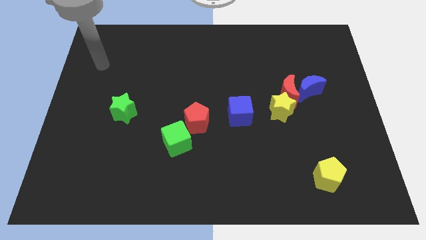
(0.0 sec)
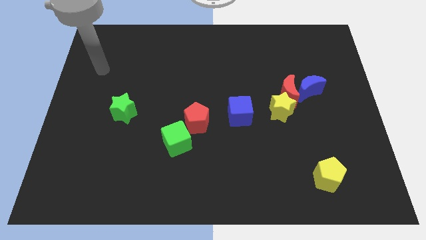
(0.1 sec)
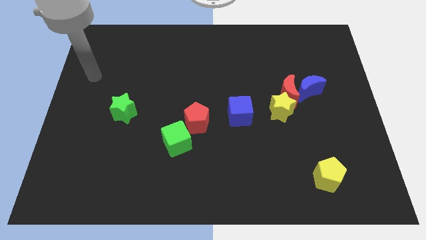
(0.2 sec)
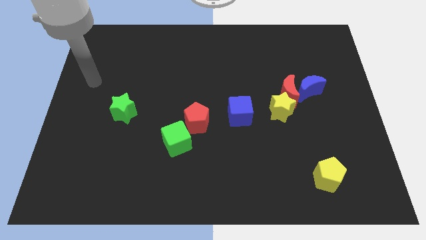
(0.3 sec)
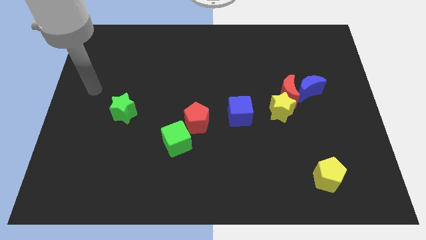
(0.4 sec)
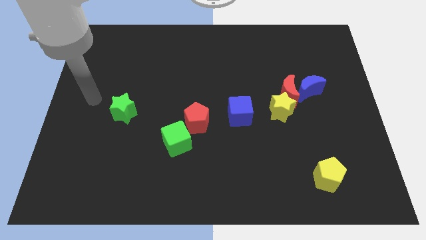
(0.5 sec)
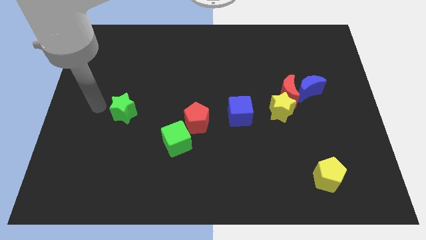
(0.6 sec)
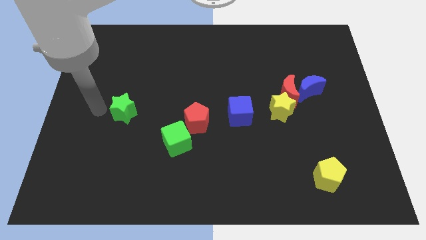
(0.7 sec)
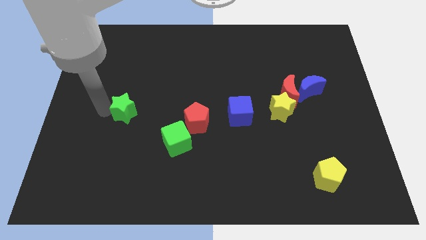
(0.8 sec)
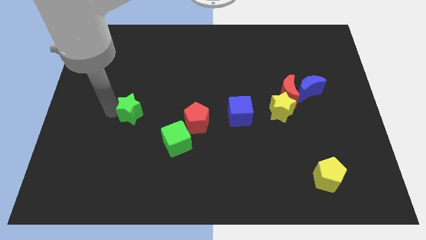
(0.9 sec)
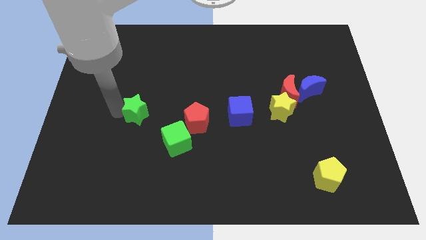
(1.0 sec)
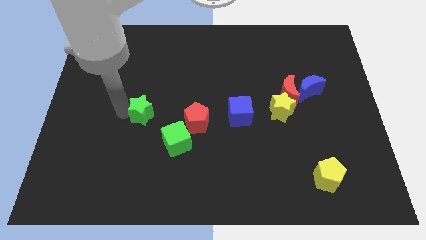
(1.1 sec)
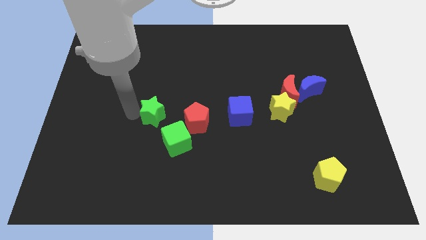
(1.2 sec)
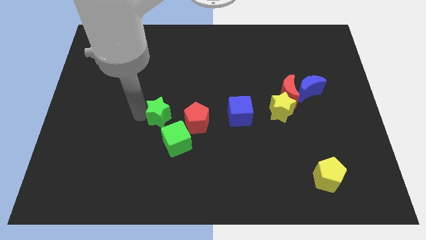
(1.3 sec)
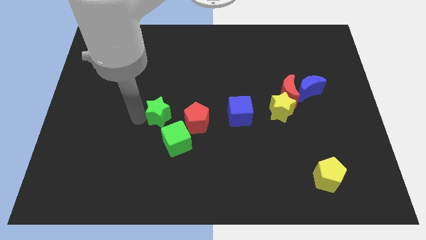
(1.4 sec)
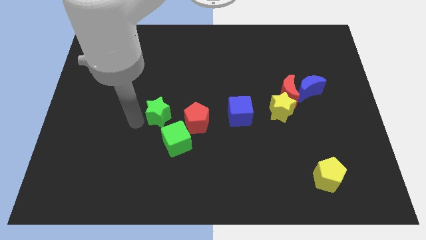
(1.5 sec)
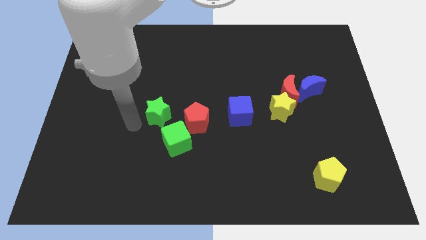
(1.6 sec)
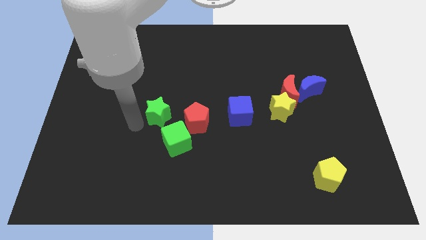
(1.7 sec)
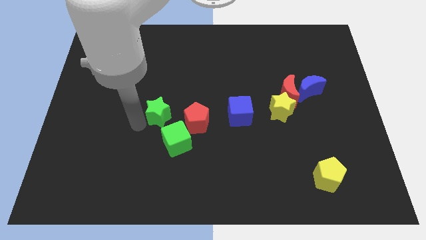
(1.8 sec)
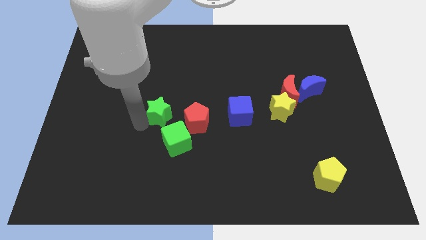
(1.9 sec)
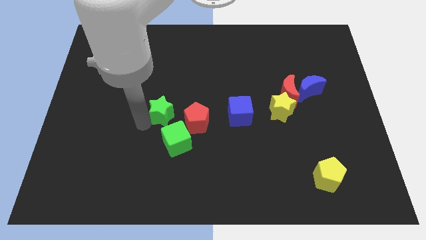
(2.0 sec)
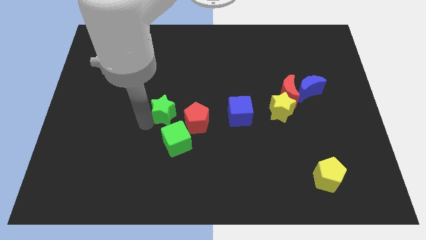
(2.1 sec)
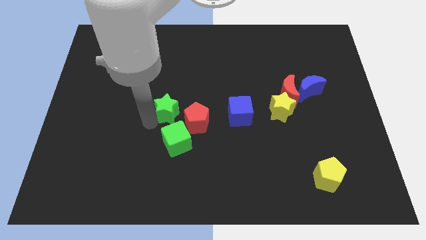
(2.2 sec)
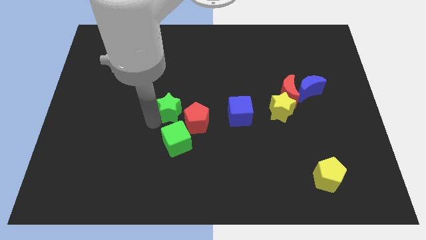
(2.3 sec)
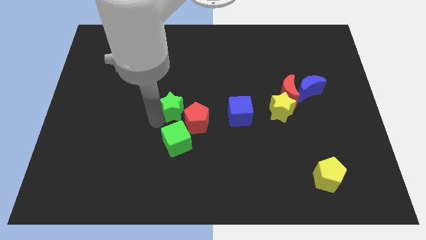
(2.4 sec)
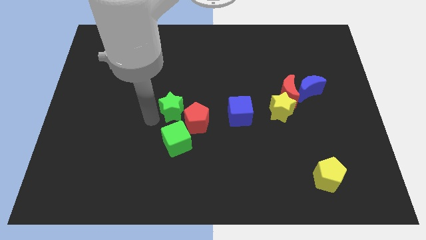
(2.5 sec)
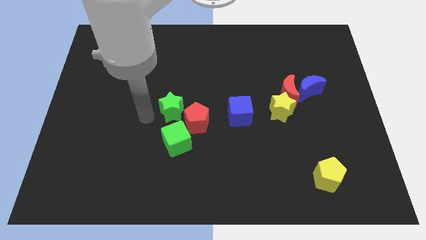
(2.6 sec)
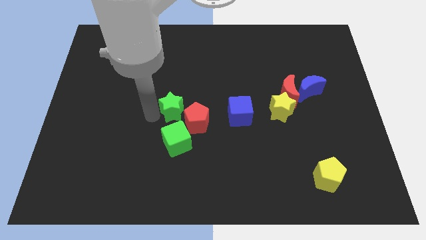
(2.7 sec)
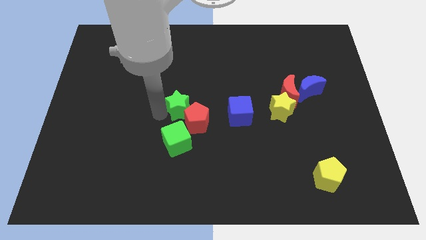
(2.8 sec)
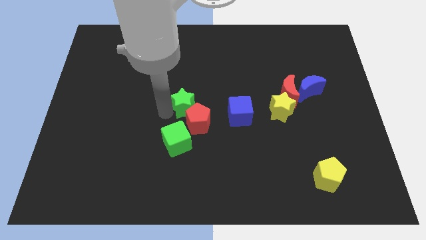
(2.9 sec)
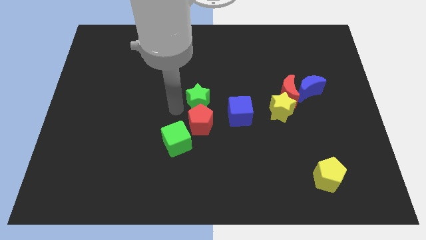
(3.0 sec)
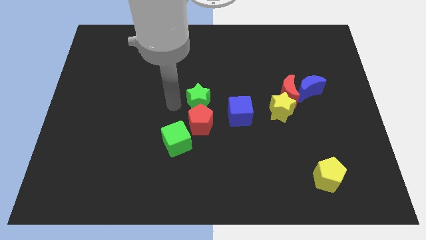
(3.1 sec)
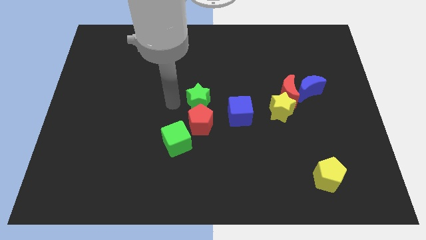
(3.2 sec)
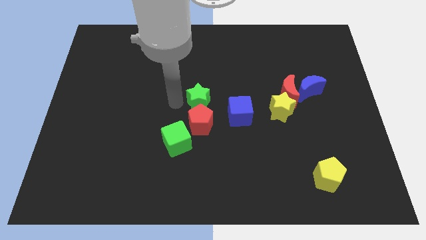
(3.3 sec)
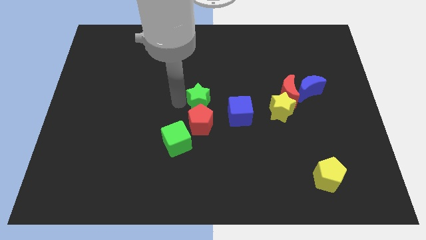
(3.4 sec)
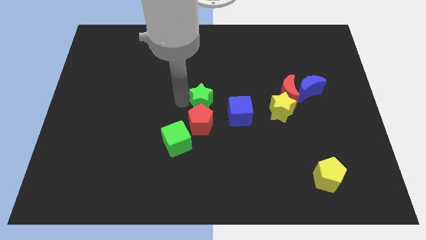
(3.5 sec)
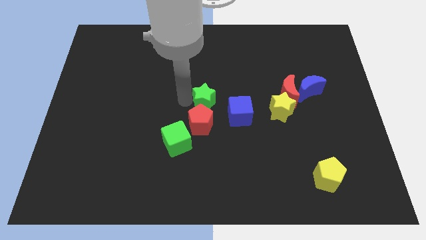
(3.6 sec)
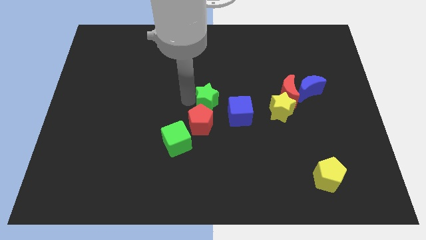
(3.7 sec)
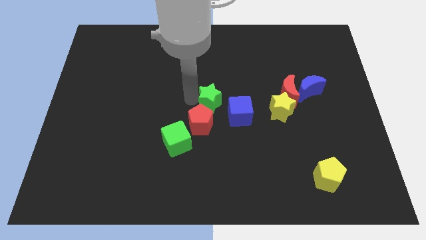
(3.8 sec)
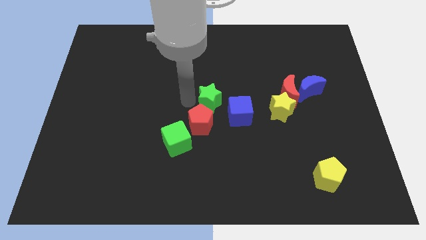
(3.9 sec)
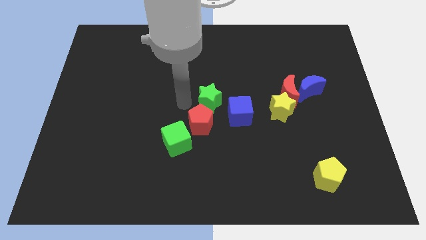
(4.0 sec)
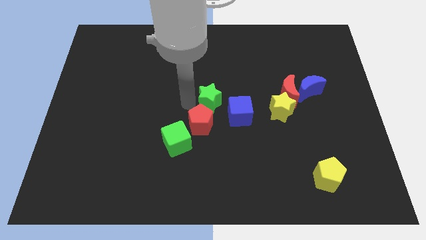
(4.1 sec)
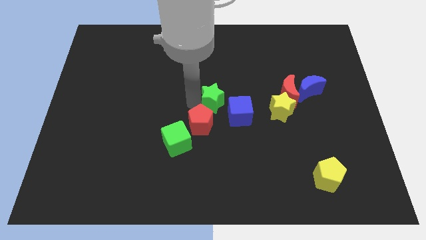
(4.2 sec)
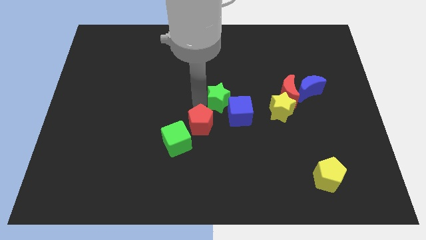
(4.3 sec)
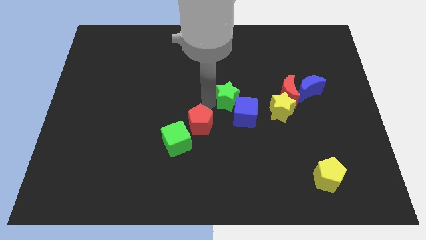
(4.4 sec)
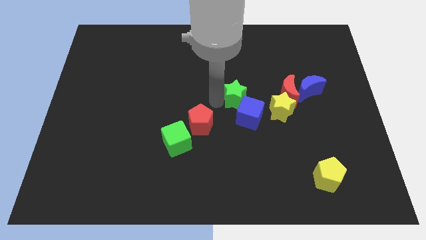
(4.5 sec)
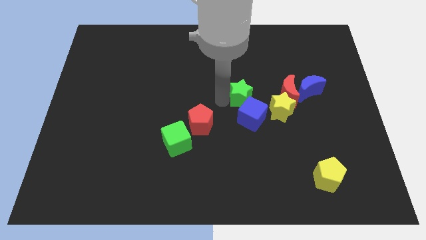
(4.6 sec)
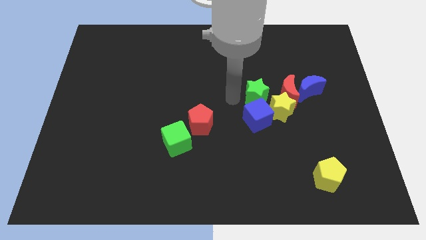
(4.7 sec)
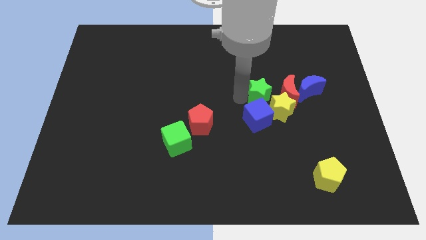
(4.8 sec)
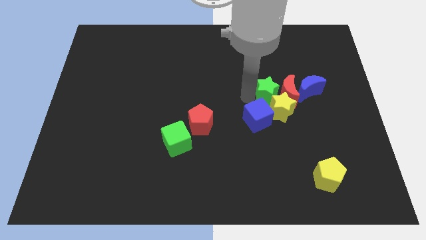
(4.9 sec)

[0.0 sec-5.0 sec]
push the green star towards the red moon

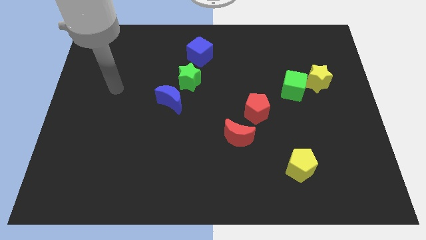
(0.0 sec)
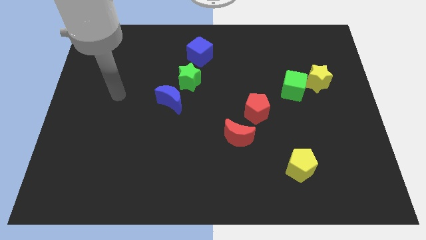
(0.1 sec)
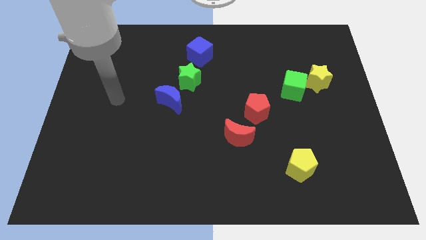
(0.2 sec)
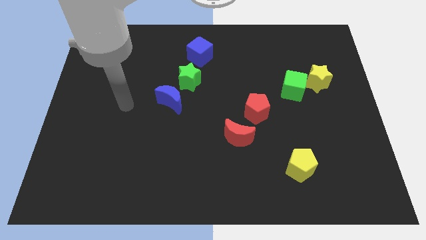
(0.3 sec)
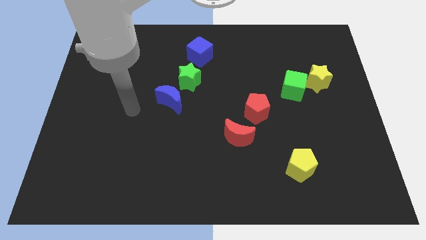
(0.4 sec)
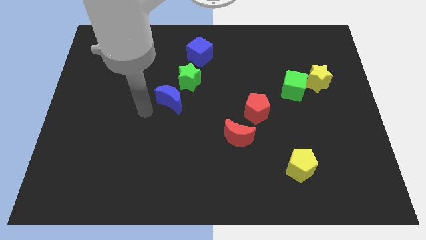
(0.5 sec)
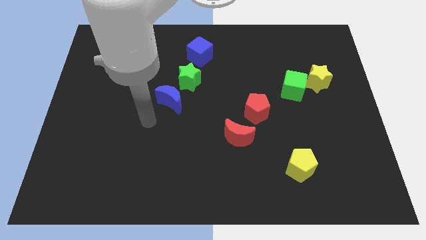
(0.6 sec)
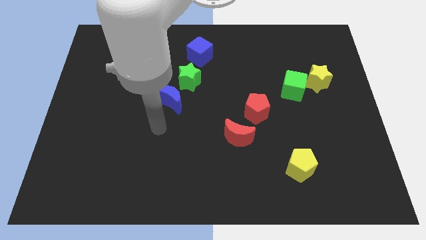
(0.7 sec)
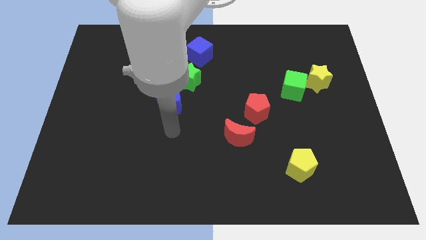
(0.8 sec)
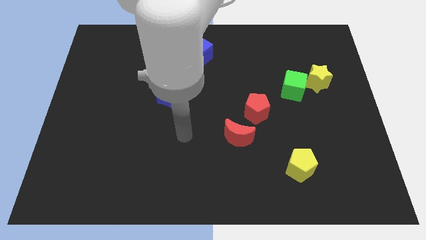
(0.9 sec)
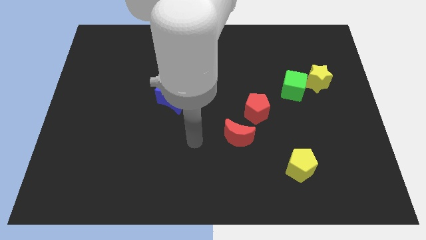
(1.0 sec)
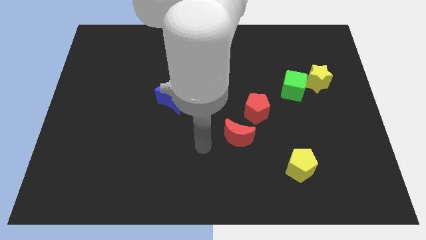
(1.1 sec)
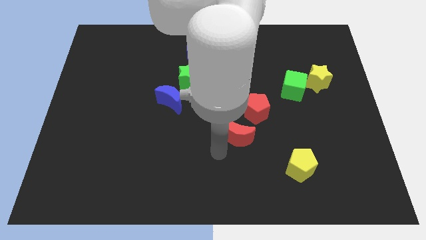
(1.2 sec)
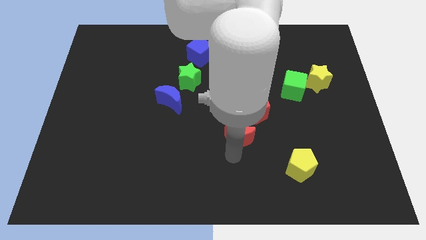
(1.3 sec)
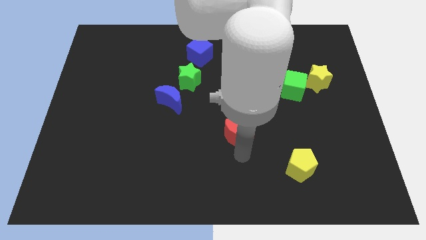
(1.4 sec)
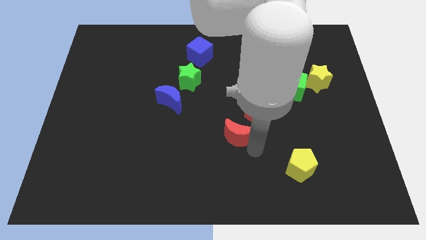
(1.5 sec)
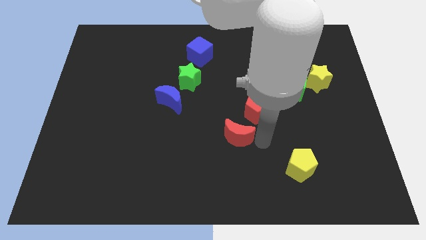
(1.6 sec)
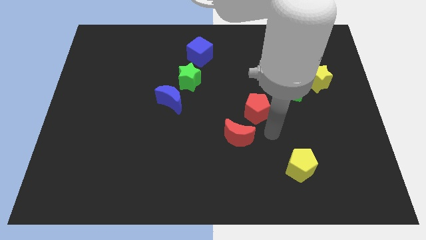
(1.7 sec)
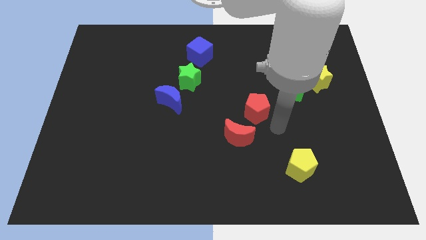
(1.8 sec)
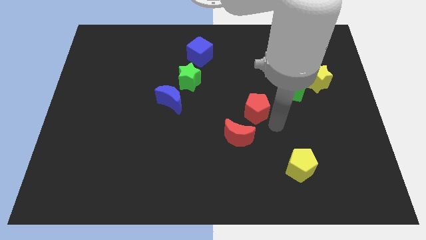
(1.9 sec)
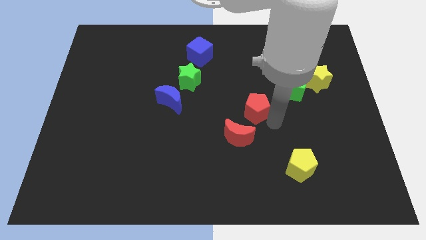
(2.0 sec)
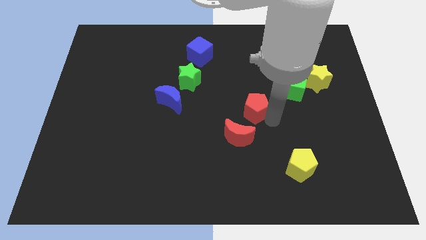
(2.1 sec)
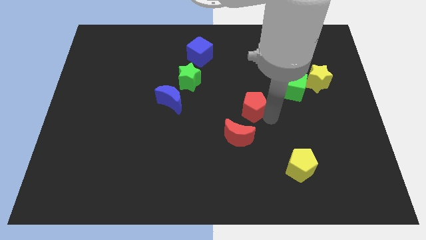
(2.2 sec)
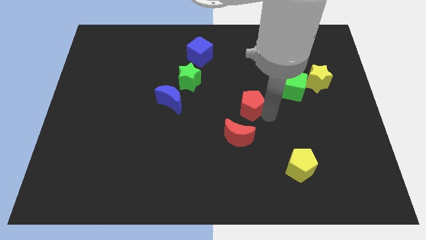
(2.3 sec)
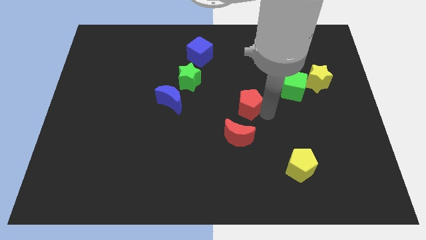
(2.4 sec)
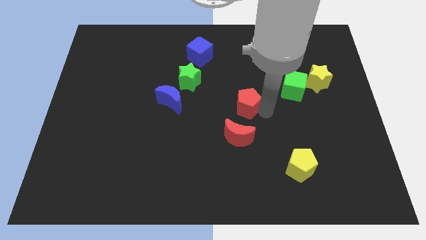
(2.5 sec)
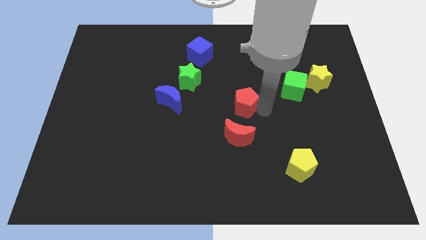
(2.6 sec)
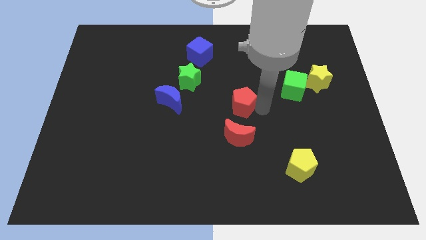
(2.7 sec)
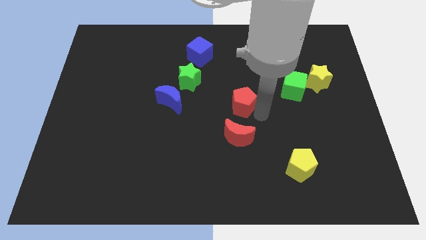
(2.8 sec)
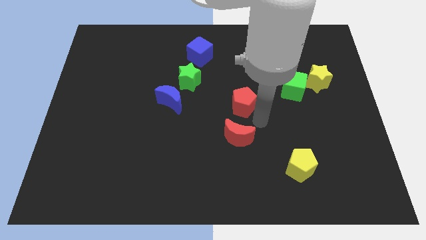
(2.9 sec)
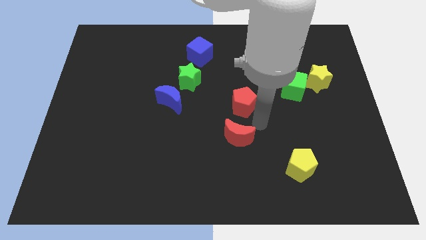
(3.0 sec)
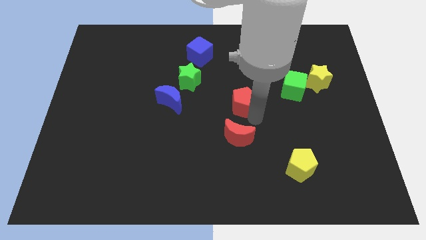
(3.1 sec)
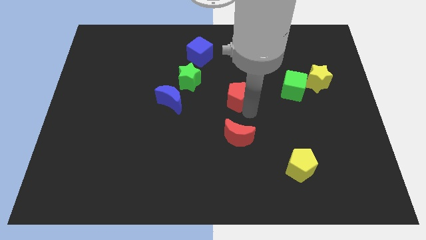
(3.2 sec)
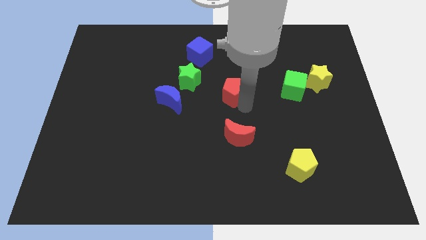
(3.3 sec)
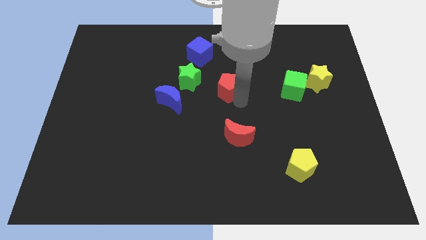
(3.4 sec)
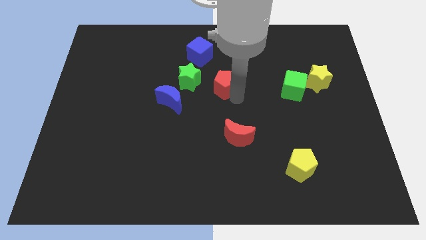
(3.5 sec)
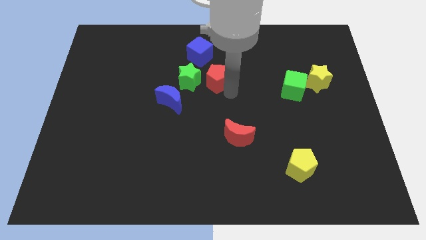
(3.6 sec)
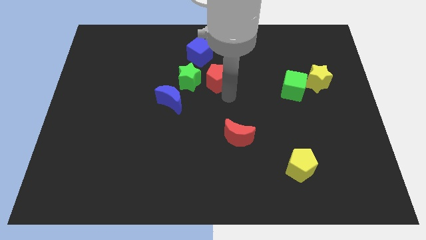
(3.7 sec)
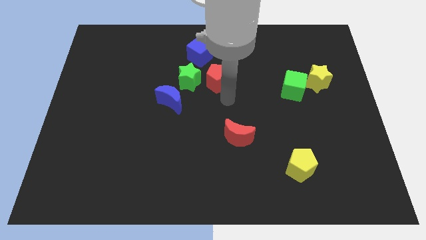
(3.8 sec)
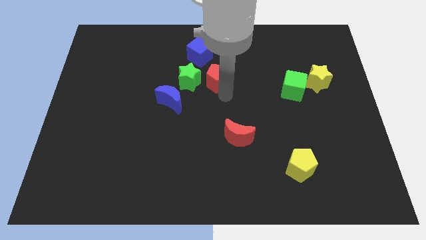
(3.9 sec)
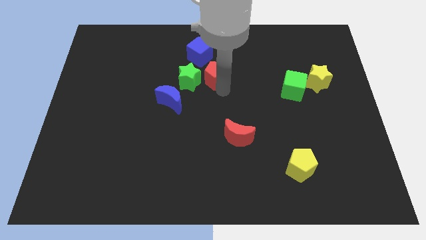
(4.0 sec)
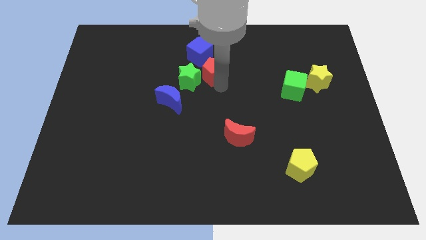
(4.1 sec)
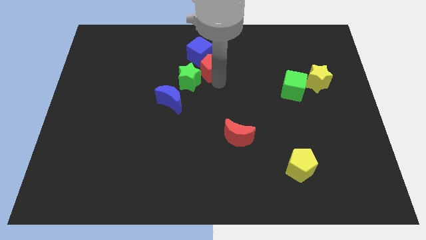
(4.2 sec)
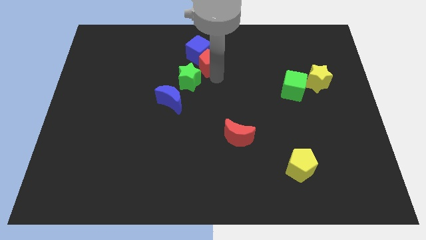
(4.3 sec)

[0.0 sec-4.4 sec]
put the red pentagon next to the blue cube
